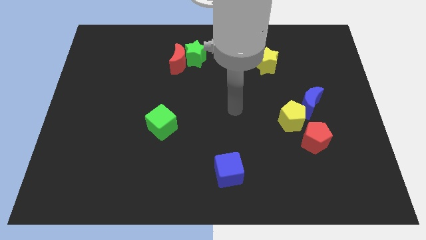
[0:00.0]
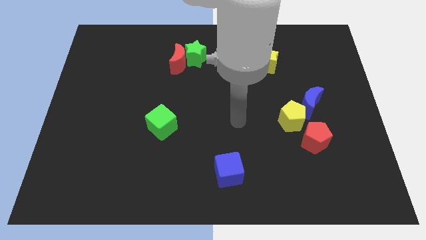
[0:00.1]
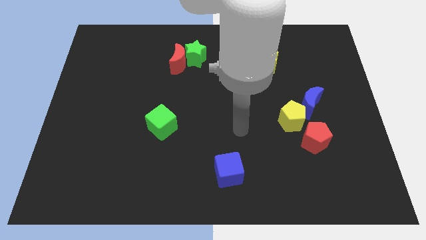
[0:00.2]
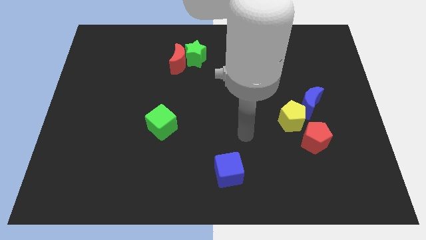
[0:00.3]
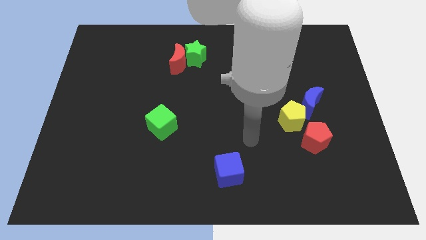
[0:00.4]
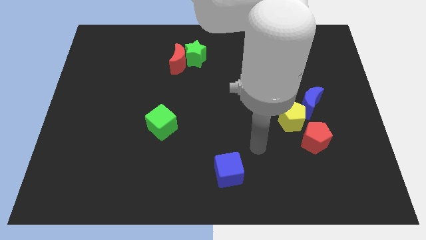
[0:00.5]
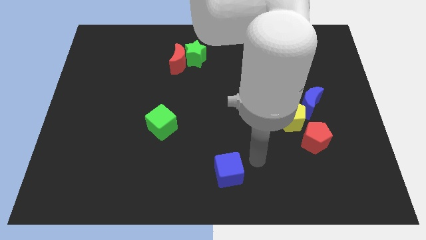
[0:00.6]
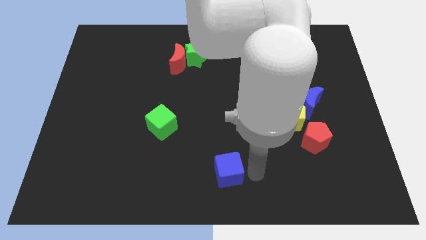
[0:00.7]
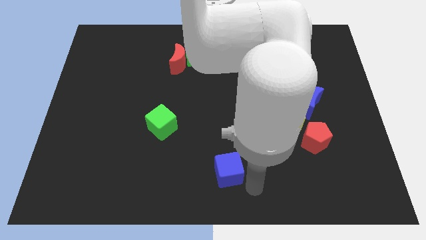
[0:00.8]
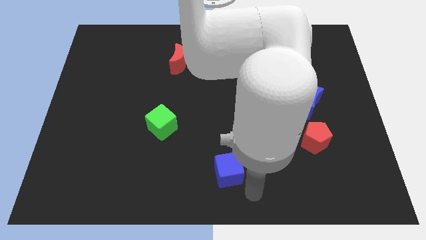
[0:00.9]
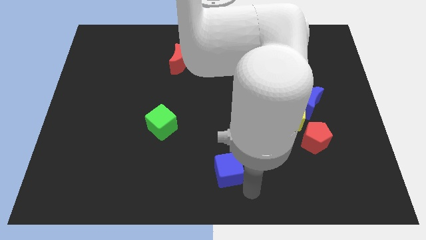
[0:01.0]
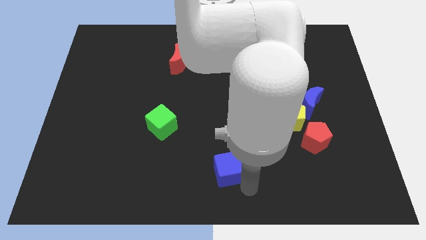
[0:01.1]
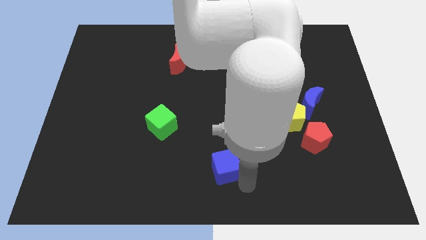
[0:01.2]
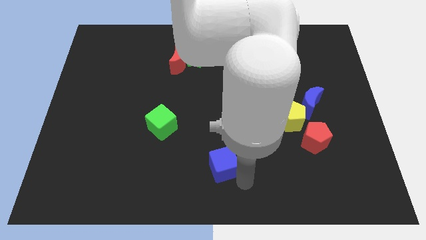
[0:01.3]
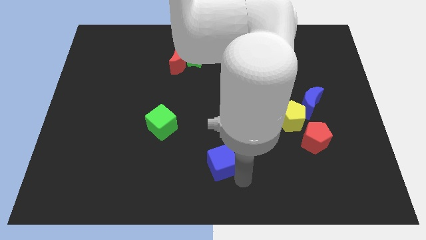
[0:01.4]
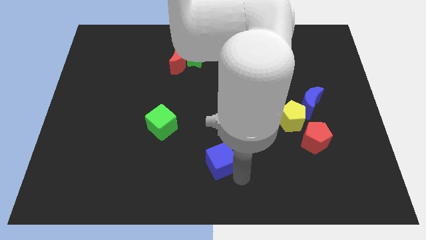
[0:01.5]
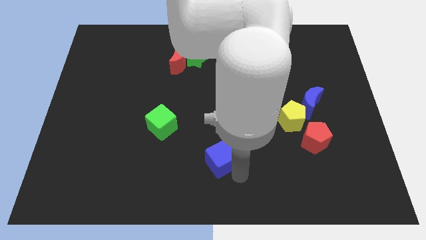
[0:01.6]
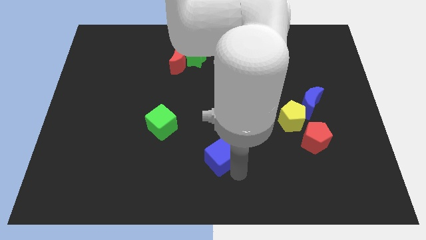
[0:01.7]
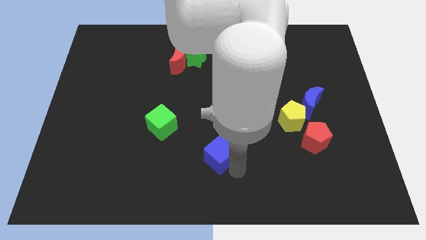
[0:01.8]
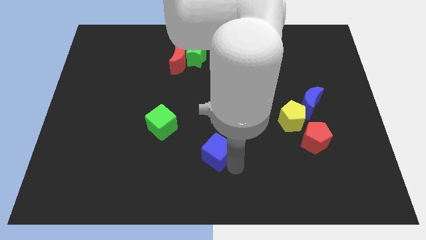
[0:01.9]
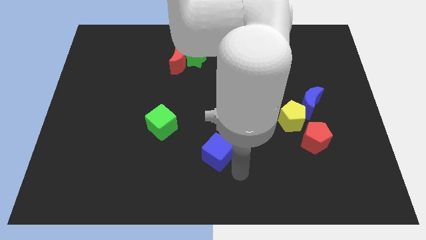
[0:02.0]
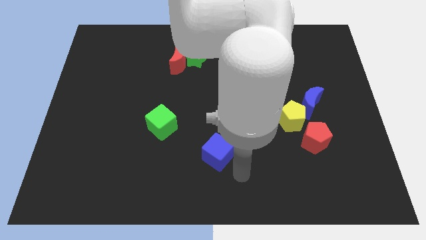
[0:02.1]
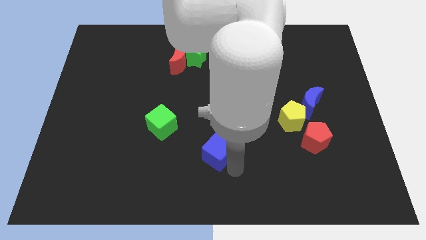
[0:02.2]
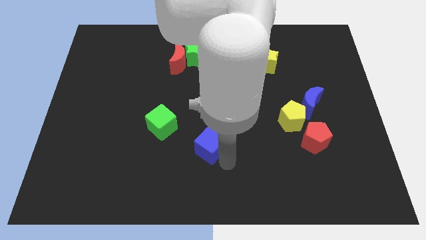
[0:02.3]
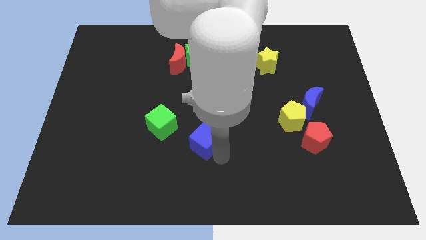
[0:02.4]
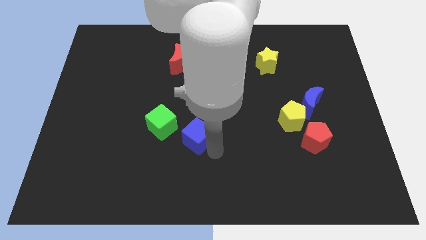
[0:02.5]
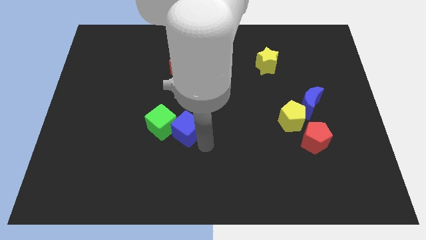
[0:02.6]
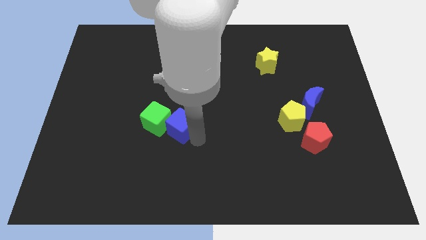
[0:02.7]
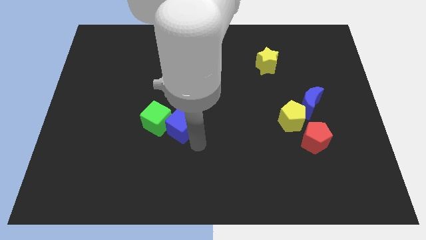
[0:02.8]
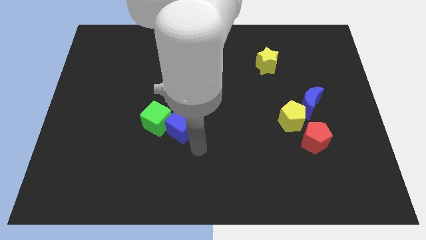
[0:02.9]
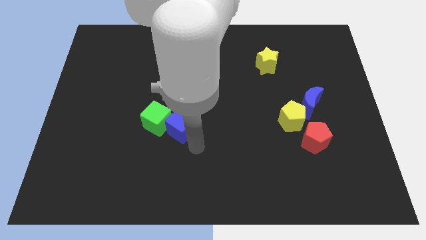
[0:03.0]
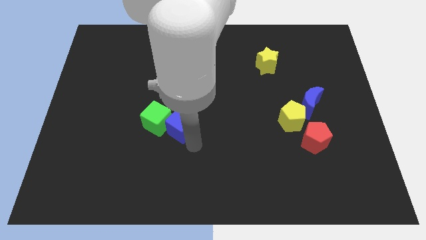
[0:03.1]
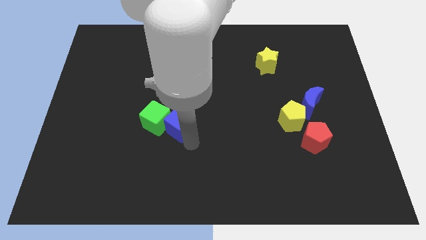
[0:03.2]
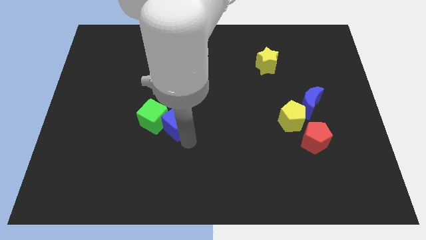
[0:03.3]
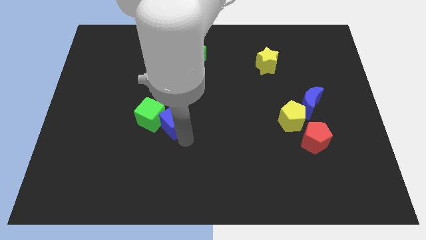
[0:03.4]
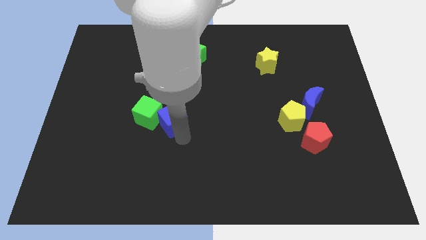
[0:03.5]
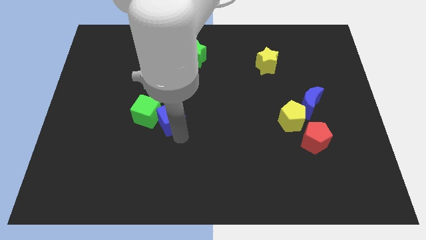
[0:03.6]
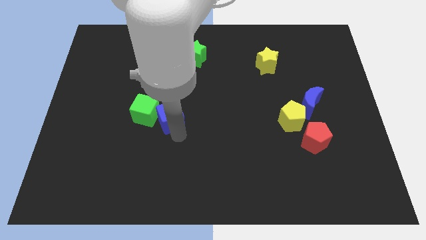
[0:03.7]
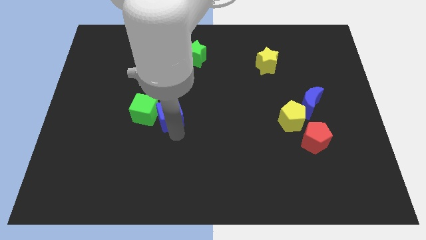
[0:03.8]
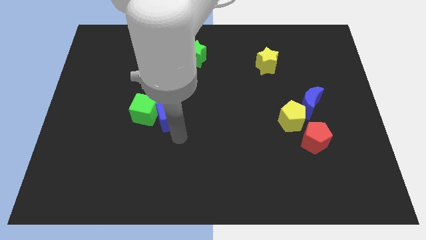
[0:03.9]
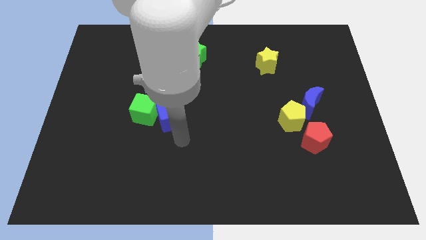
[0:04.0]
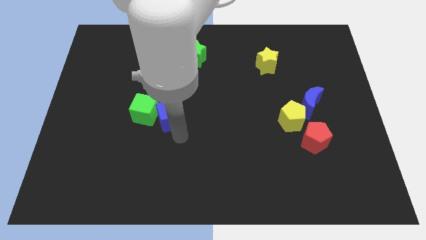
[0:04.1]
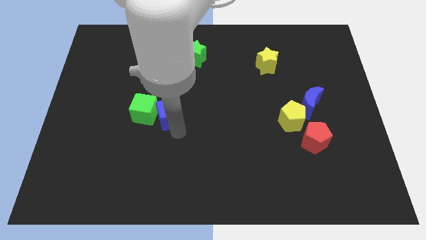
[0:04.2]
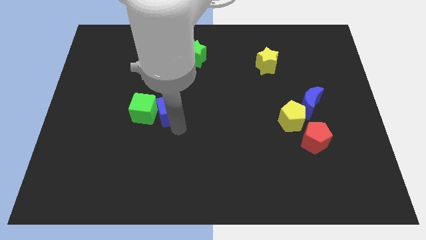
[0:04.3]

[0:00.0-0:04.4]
slide the blue cube upwards and to the left

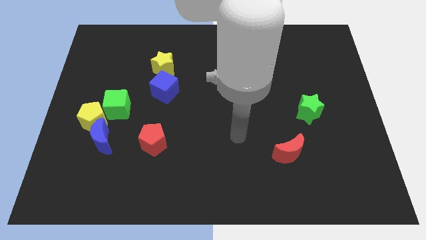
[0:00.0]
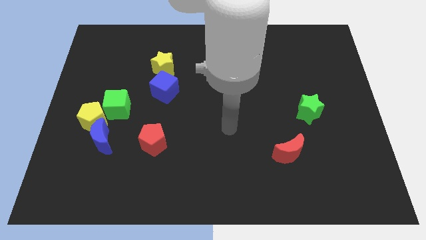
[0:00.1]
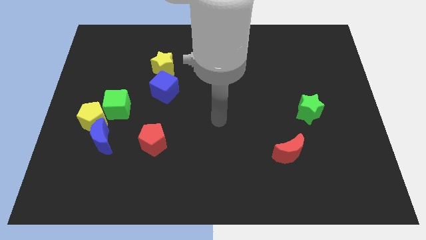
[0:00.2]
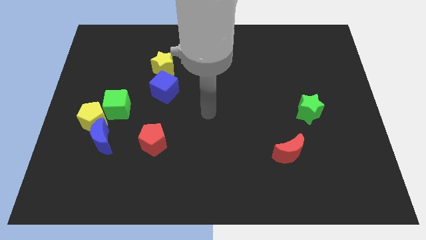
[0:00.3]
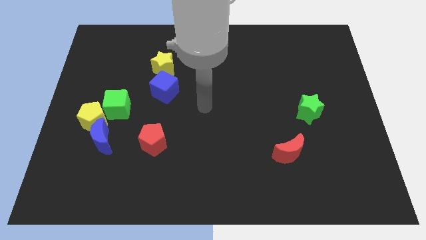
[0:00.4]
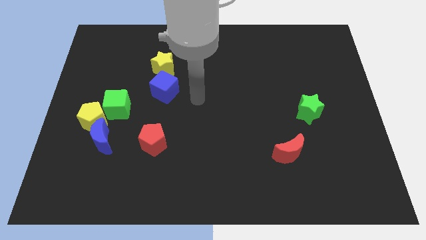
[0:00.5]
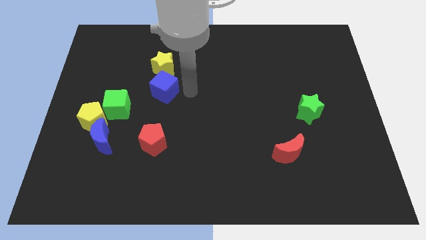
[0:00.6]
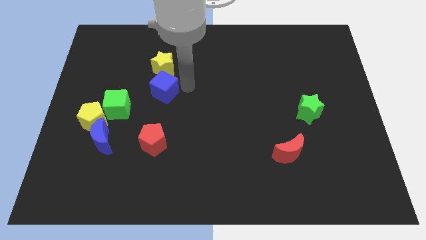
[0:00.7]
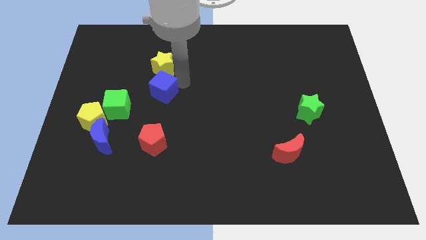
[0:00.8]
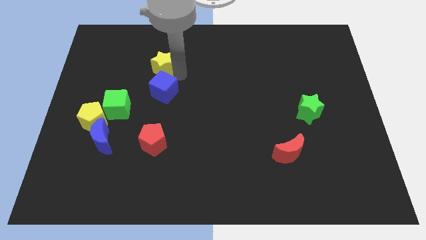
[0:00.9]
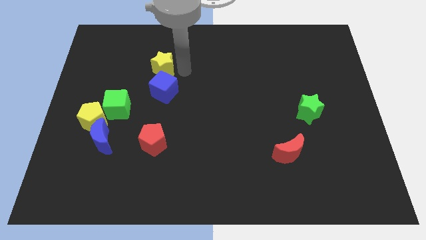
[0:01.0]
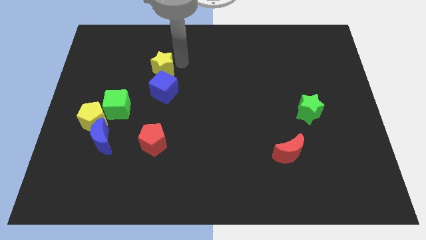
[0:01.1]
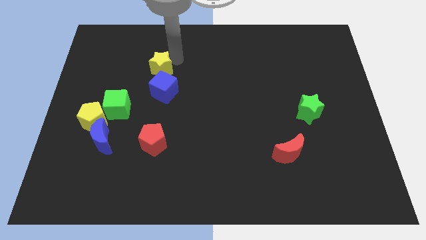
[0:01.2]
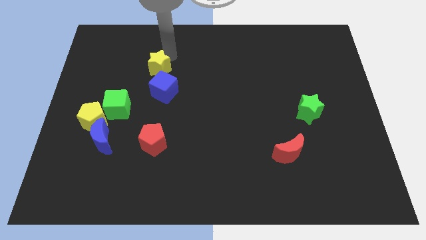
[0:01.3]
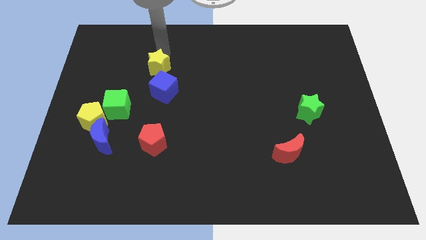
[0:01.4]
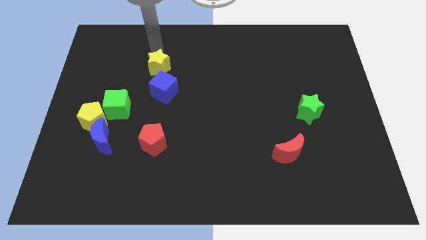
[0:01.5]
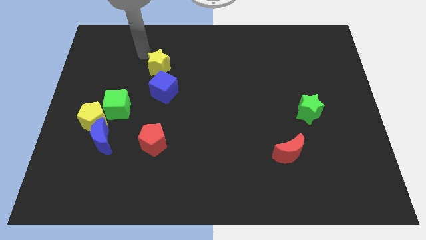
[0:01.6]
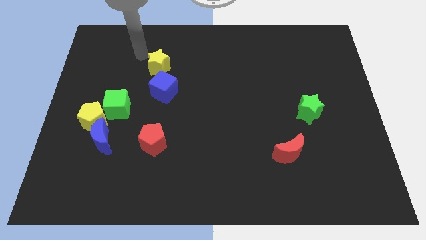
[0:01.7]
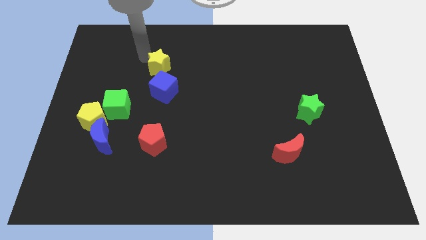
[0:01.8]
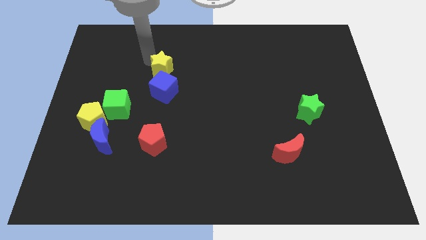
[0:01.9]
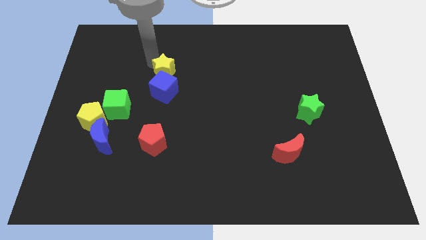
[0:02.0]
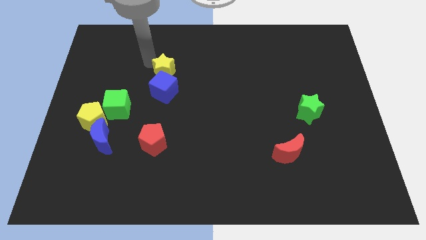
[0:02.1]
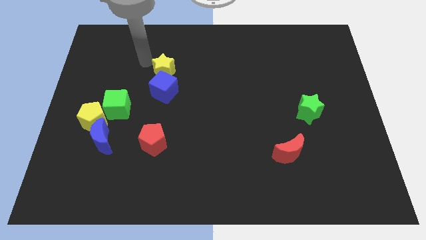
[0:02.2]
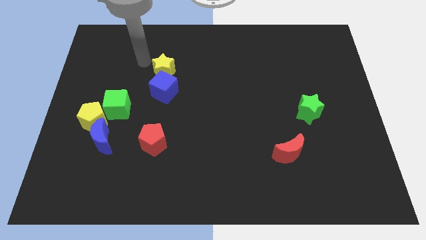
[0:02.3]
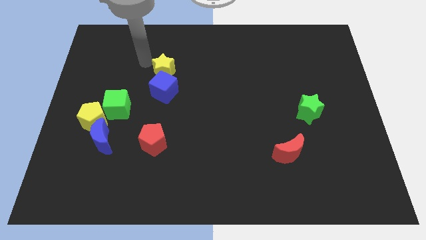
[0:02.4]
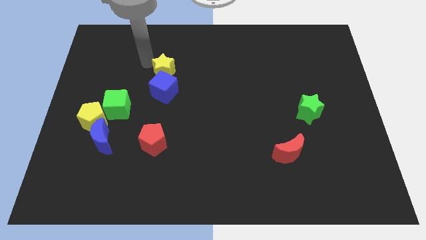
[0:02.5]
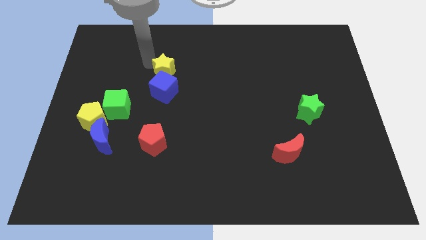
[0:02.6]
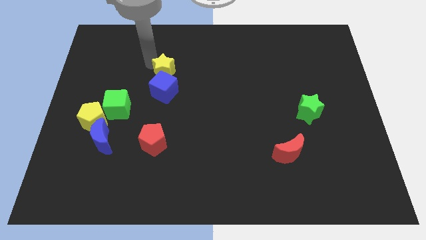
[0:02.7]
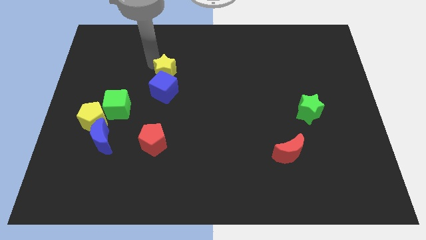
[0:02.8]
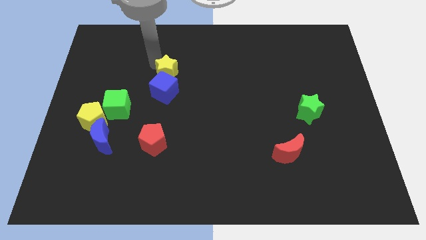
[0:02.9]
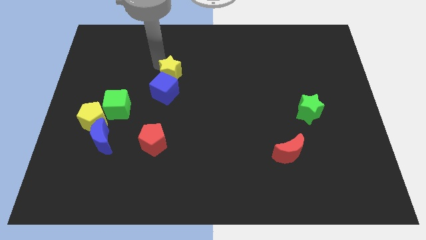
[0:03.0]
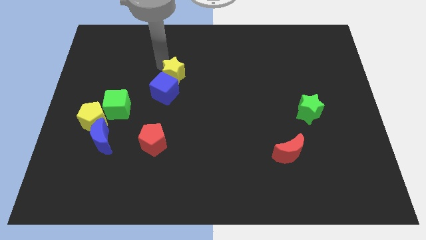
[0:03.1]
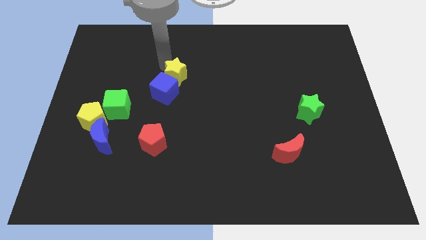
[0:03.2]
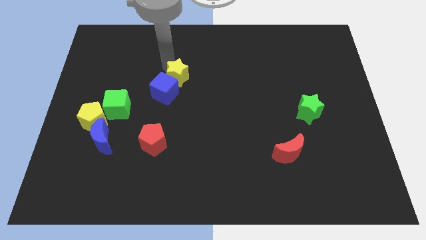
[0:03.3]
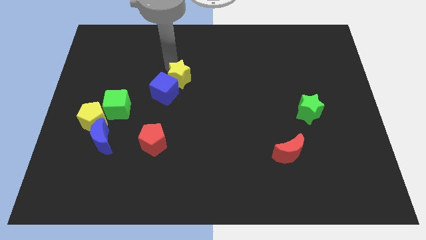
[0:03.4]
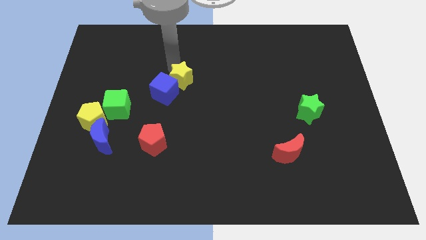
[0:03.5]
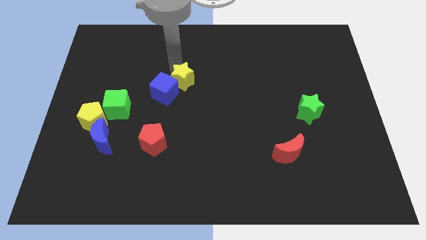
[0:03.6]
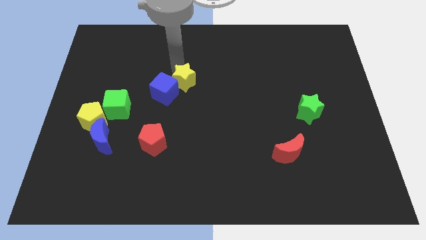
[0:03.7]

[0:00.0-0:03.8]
slide the yellow star diagonally down and to the right somewhat

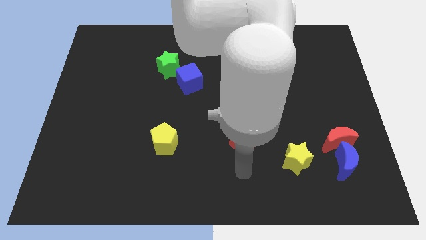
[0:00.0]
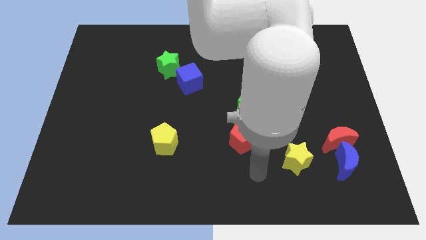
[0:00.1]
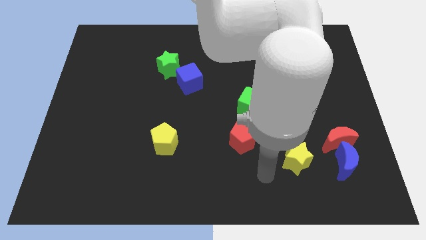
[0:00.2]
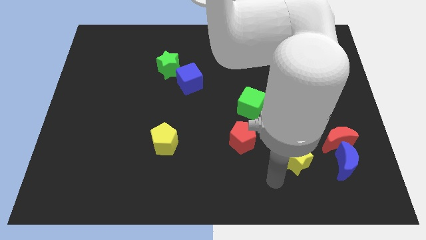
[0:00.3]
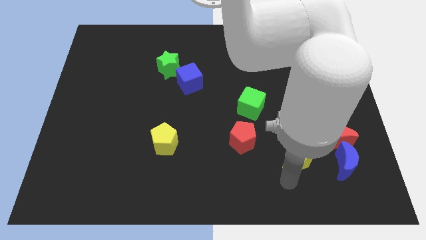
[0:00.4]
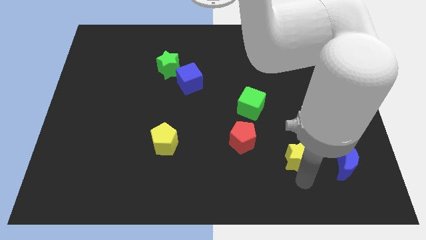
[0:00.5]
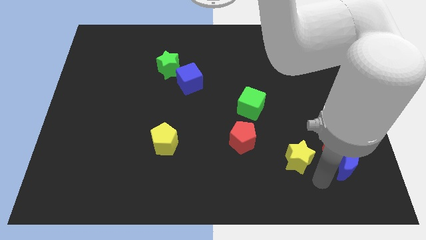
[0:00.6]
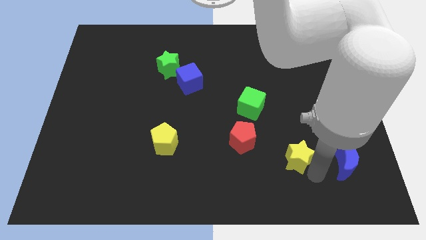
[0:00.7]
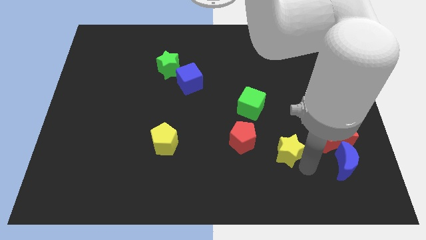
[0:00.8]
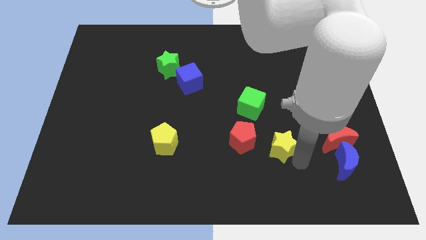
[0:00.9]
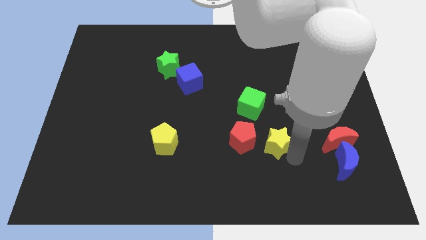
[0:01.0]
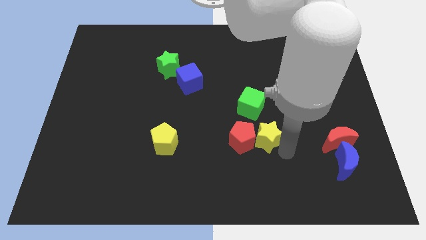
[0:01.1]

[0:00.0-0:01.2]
slide the yellow star somewhat upwards and then to the left
